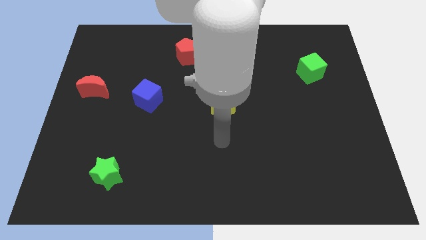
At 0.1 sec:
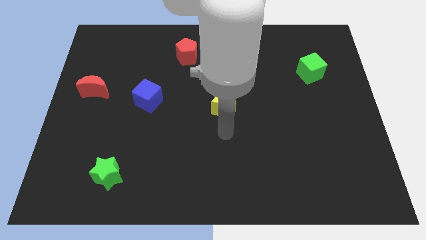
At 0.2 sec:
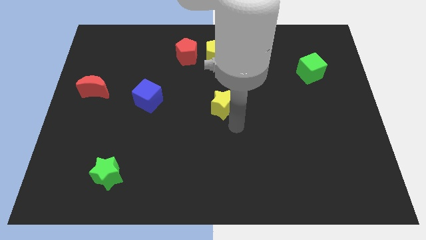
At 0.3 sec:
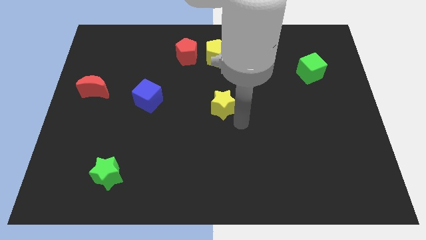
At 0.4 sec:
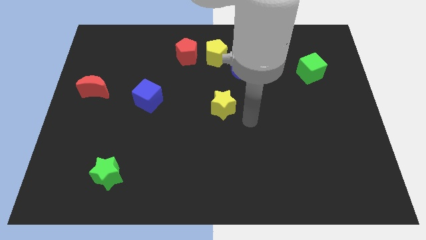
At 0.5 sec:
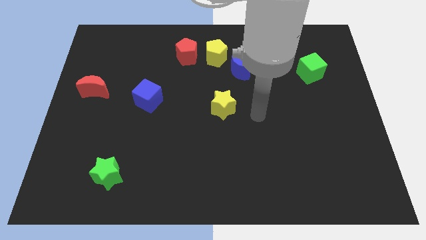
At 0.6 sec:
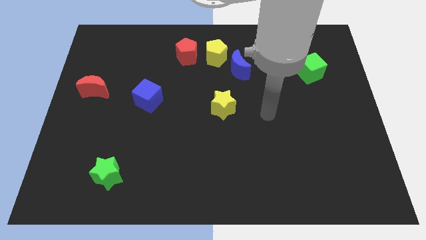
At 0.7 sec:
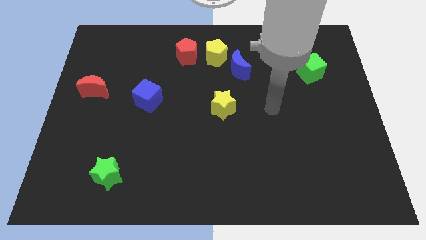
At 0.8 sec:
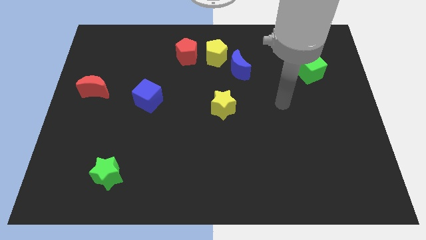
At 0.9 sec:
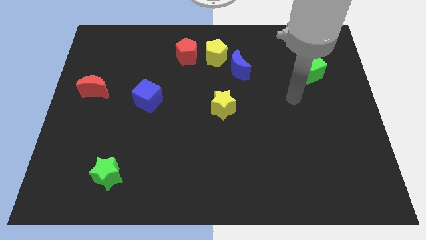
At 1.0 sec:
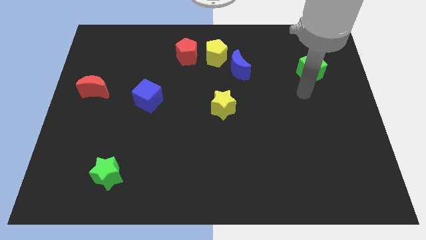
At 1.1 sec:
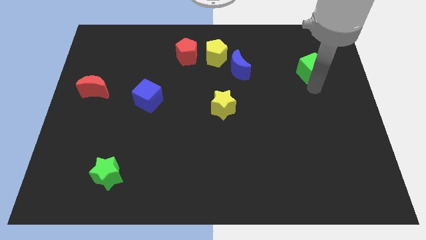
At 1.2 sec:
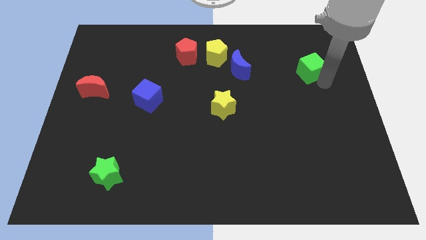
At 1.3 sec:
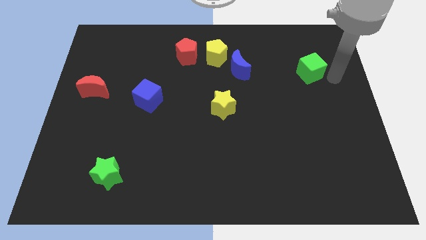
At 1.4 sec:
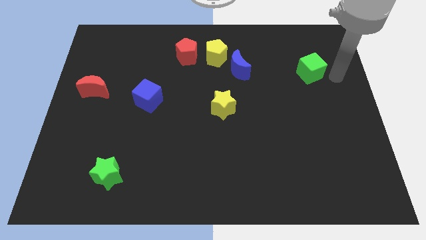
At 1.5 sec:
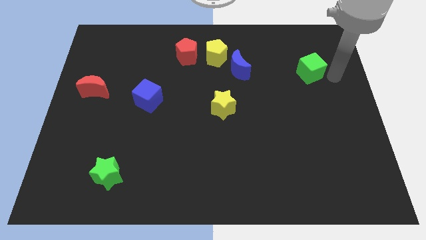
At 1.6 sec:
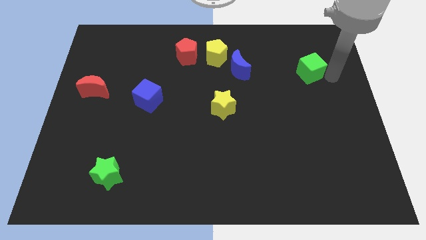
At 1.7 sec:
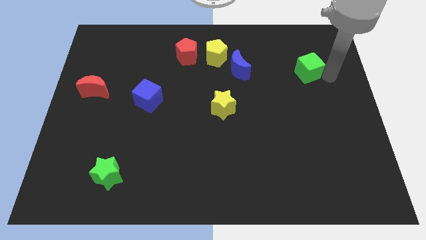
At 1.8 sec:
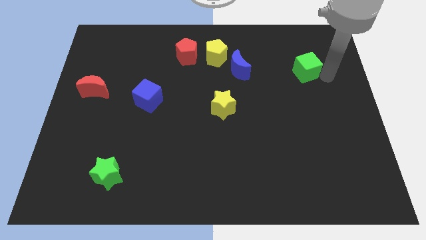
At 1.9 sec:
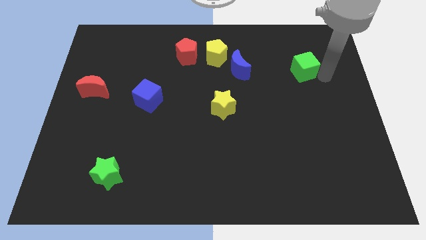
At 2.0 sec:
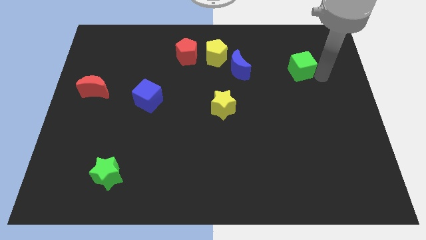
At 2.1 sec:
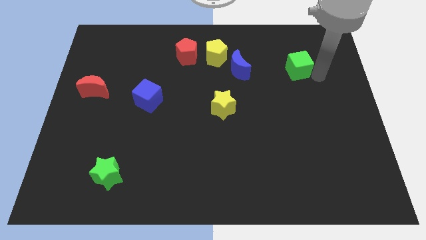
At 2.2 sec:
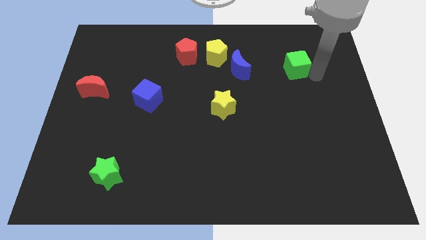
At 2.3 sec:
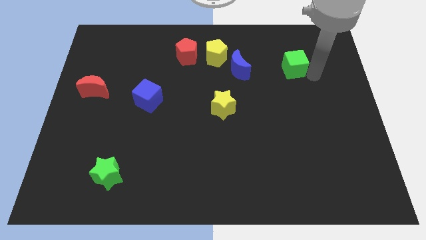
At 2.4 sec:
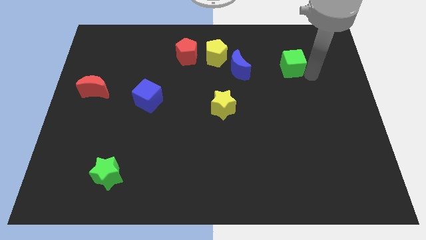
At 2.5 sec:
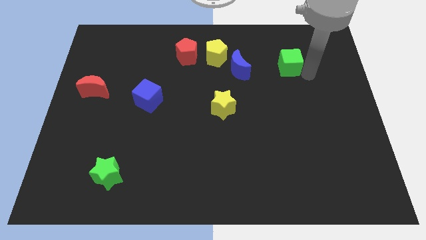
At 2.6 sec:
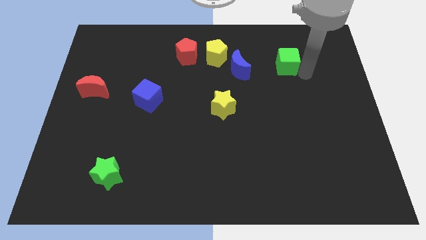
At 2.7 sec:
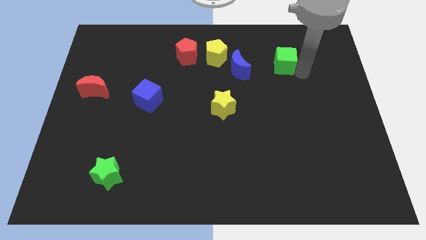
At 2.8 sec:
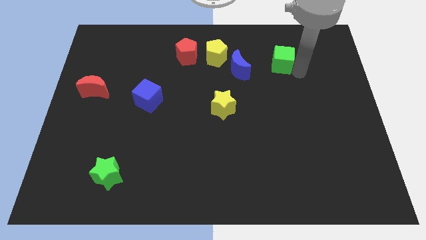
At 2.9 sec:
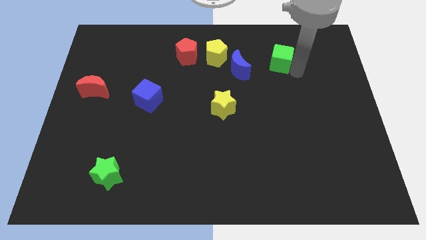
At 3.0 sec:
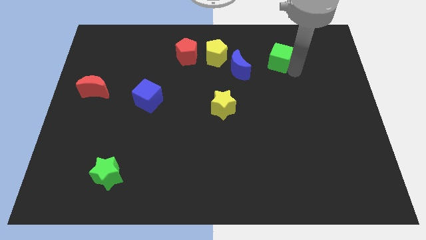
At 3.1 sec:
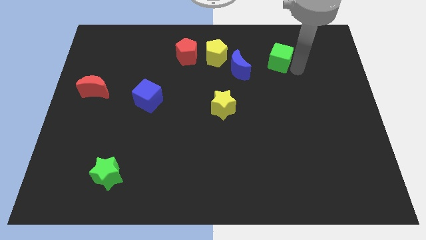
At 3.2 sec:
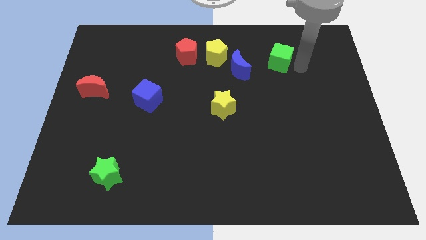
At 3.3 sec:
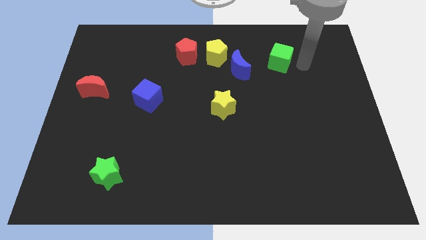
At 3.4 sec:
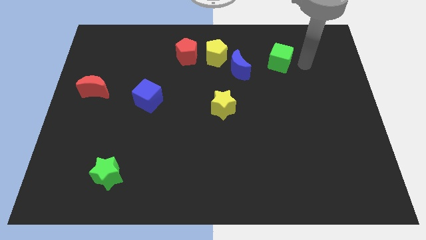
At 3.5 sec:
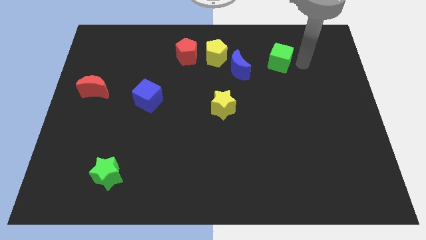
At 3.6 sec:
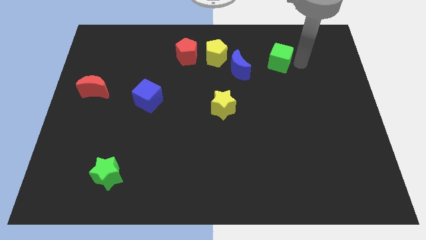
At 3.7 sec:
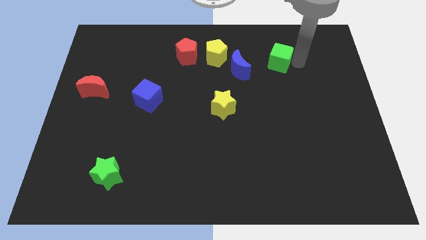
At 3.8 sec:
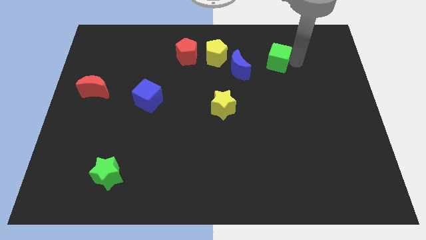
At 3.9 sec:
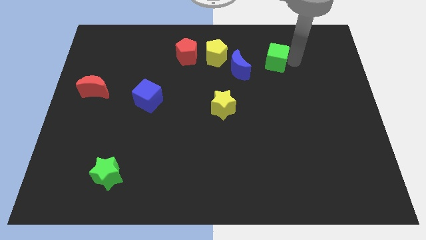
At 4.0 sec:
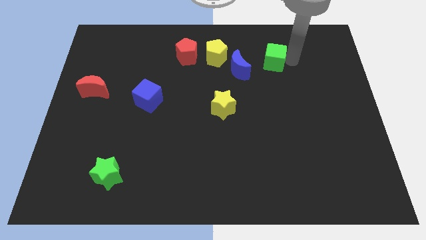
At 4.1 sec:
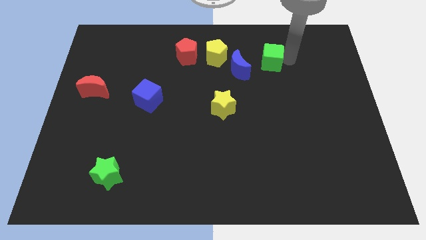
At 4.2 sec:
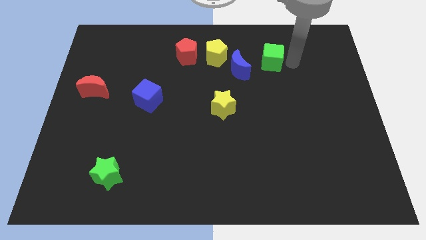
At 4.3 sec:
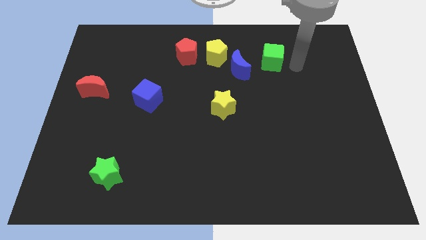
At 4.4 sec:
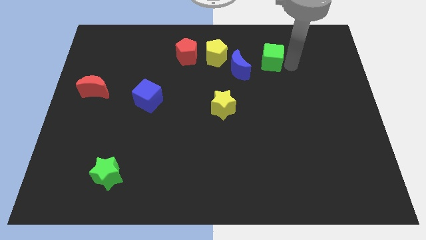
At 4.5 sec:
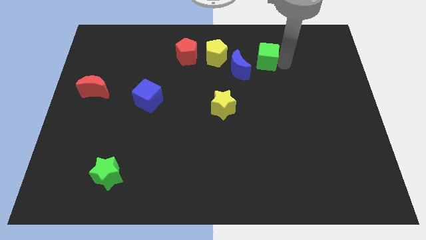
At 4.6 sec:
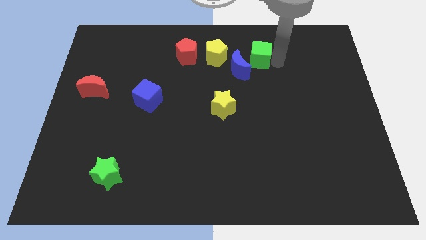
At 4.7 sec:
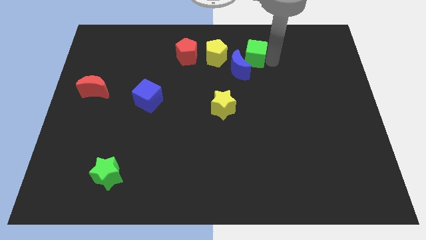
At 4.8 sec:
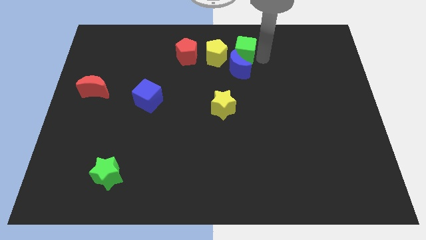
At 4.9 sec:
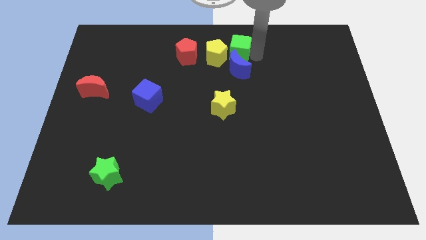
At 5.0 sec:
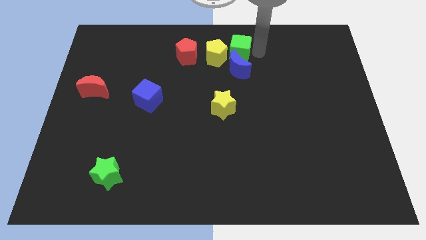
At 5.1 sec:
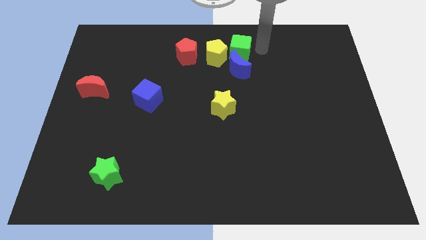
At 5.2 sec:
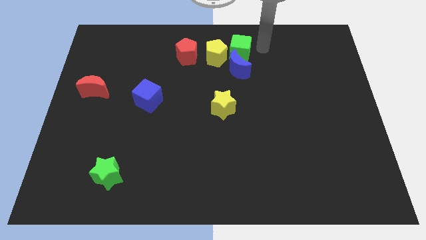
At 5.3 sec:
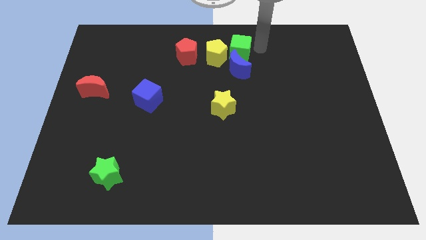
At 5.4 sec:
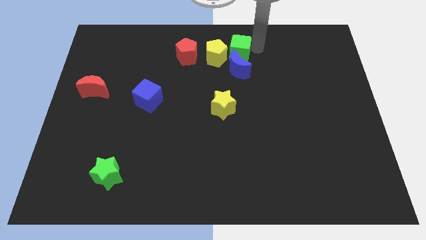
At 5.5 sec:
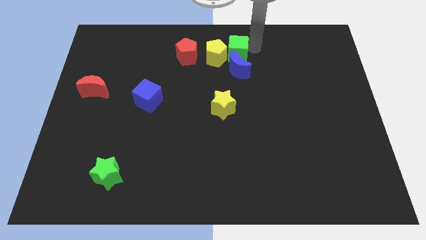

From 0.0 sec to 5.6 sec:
slide the green cube close to the yellow pentagon

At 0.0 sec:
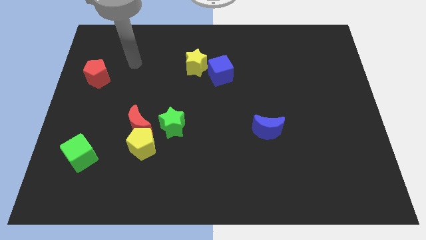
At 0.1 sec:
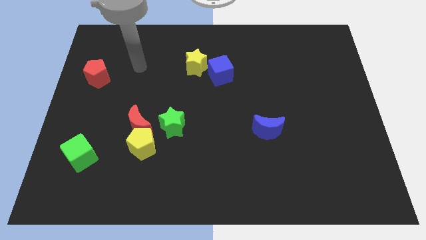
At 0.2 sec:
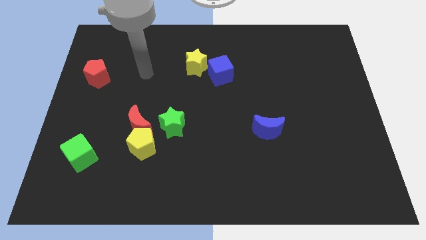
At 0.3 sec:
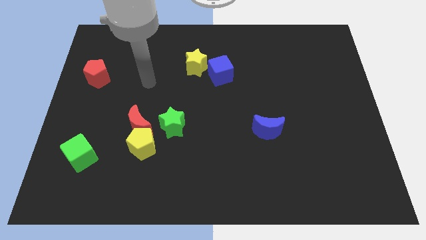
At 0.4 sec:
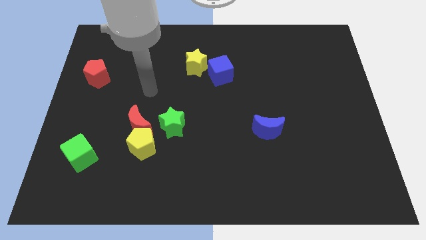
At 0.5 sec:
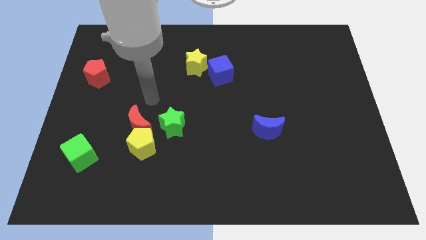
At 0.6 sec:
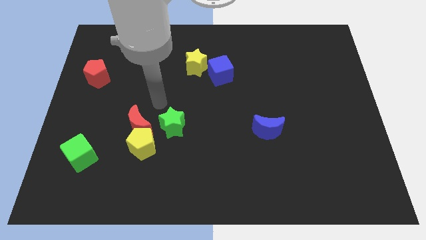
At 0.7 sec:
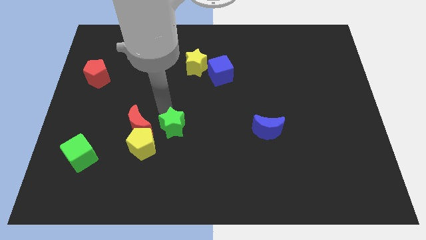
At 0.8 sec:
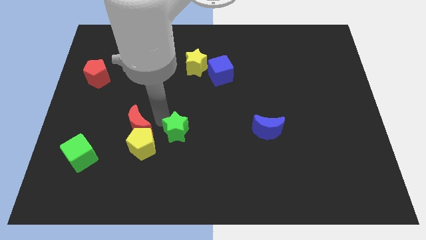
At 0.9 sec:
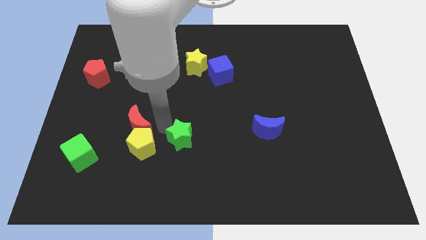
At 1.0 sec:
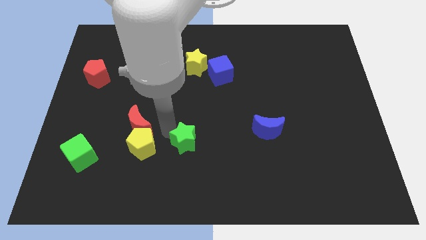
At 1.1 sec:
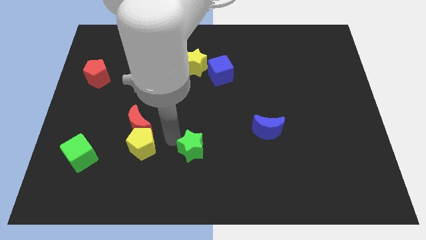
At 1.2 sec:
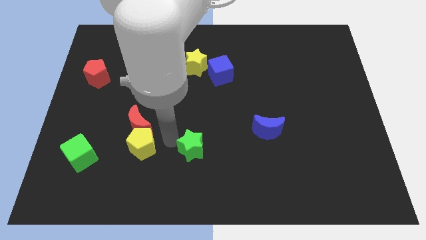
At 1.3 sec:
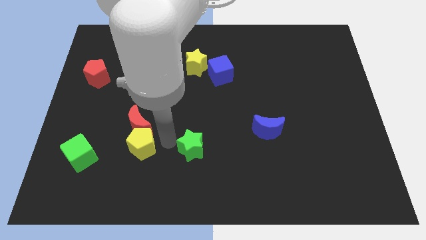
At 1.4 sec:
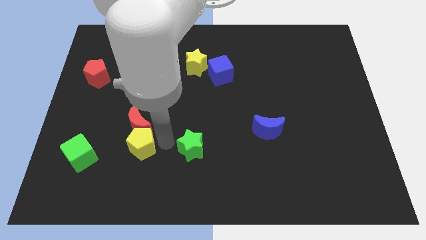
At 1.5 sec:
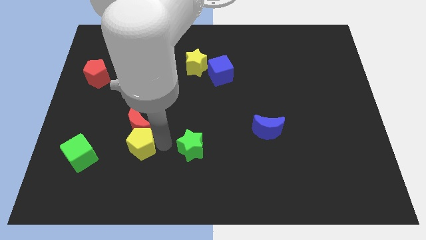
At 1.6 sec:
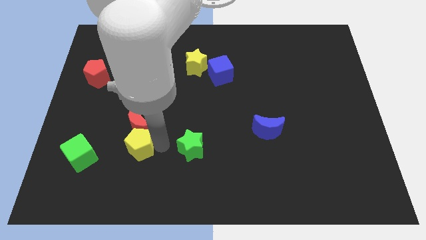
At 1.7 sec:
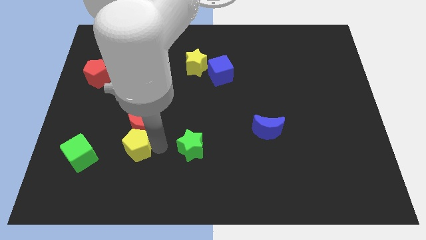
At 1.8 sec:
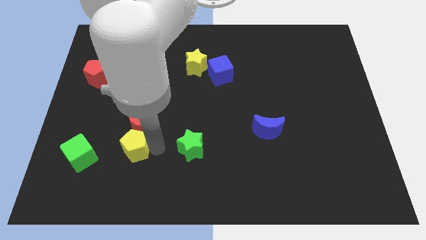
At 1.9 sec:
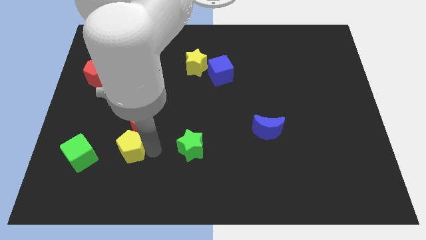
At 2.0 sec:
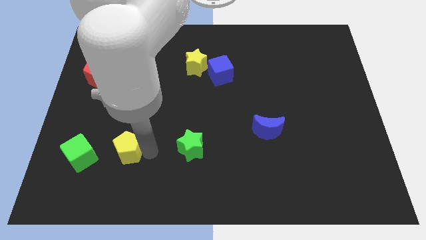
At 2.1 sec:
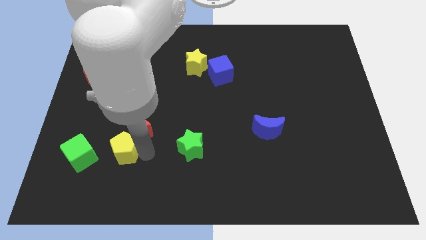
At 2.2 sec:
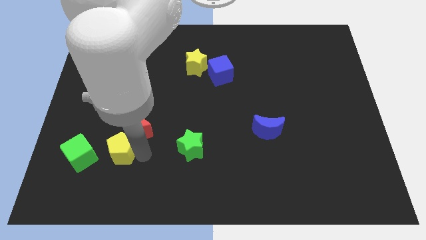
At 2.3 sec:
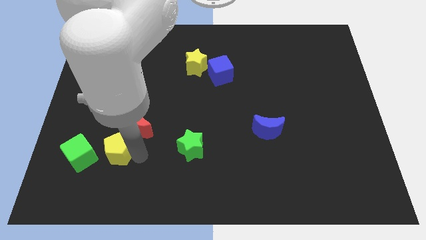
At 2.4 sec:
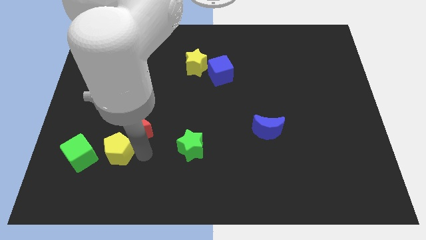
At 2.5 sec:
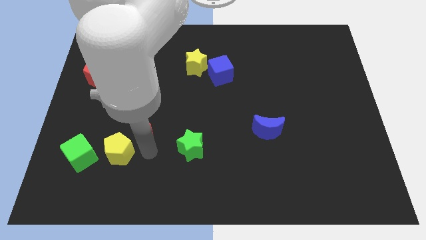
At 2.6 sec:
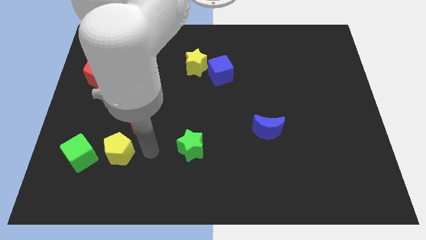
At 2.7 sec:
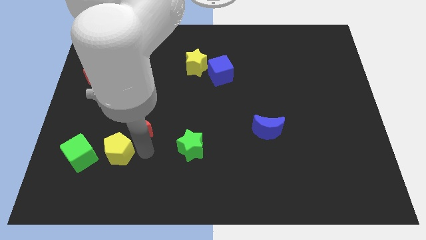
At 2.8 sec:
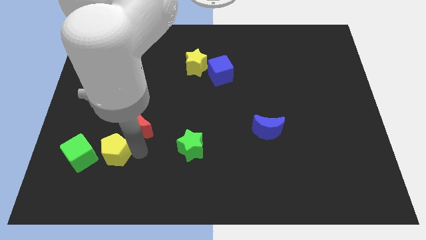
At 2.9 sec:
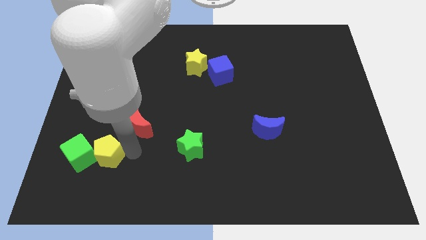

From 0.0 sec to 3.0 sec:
slide the yellow pentagon close to the green cube
